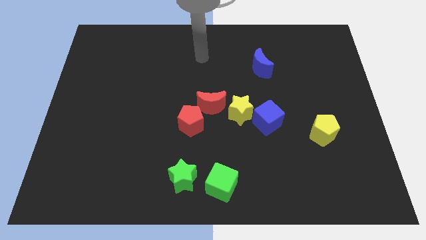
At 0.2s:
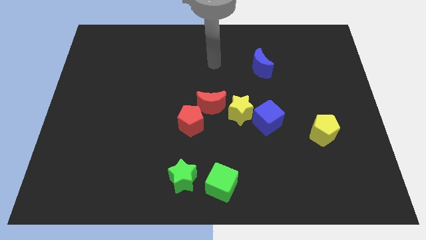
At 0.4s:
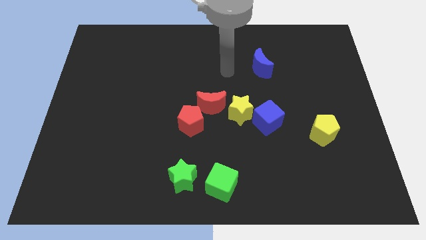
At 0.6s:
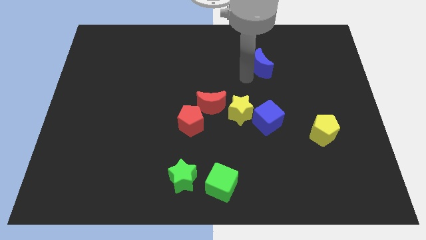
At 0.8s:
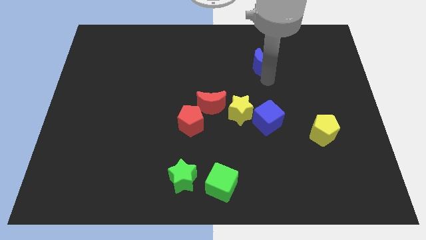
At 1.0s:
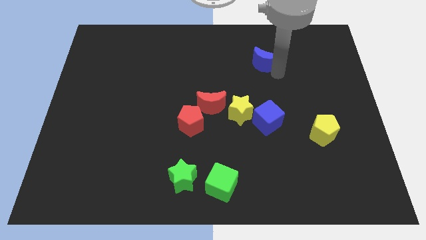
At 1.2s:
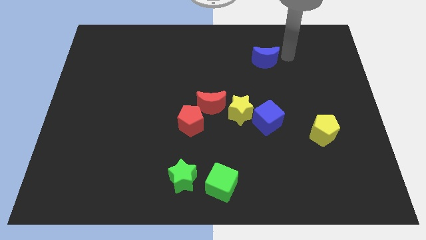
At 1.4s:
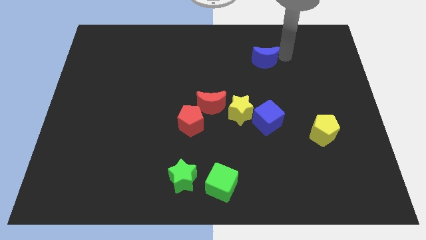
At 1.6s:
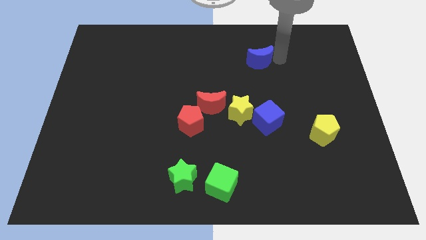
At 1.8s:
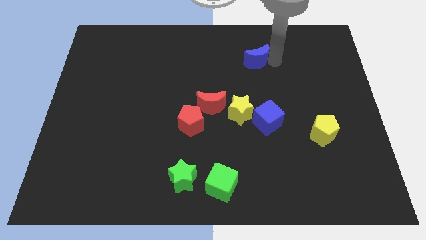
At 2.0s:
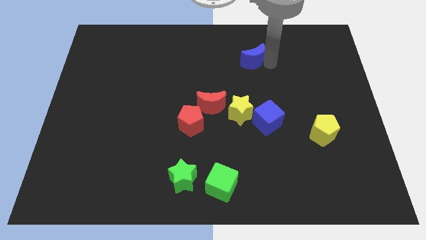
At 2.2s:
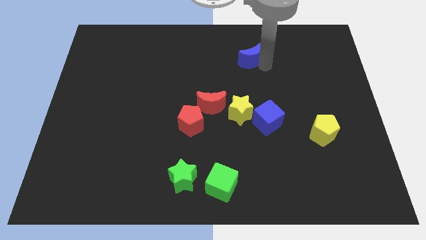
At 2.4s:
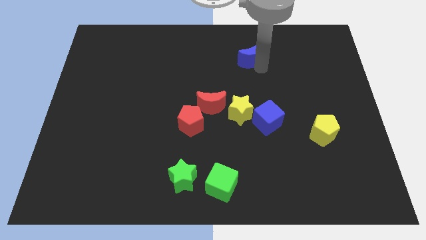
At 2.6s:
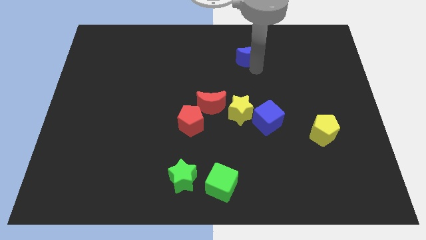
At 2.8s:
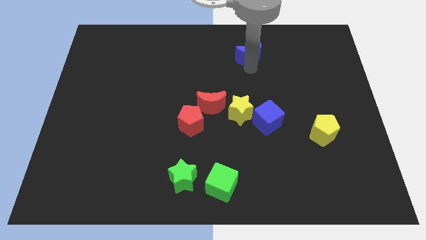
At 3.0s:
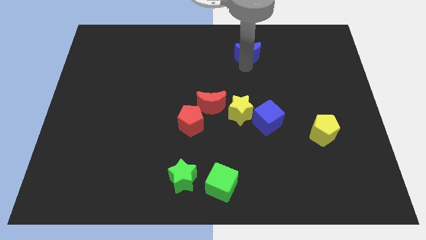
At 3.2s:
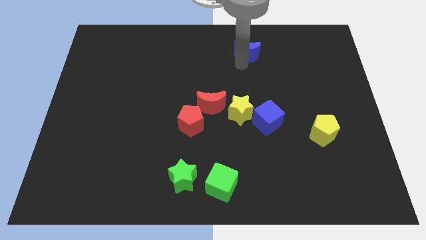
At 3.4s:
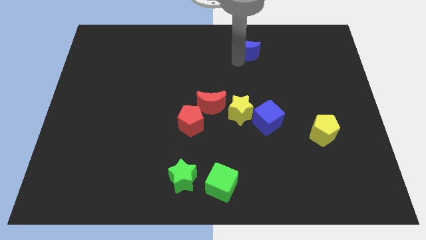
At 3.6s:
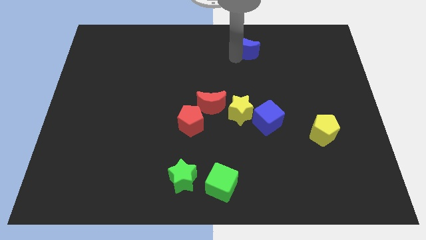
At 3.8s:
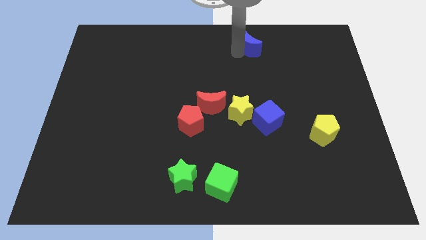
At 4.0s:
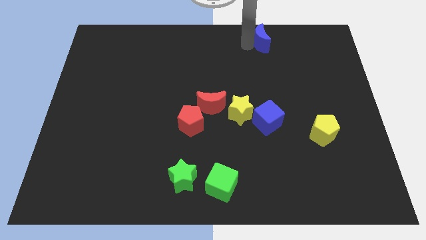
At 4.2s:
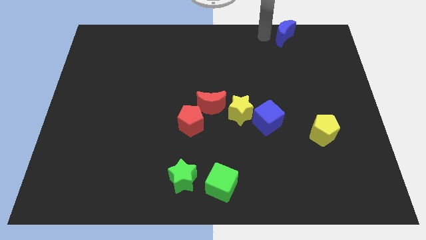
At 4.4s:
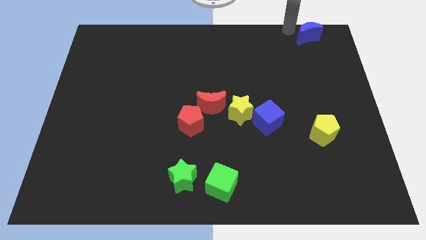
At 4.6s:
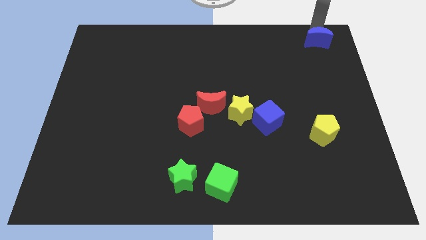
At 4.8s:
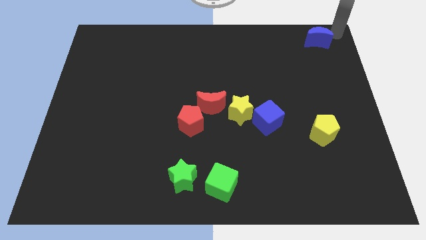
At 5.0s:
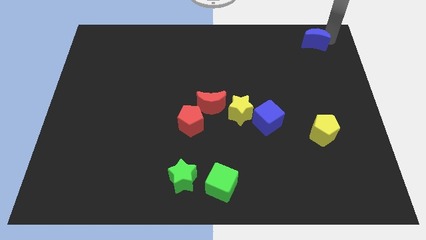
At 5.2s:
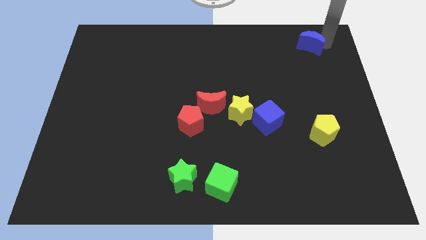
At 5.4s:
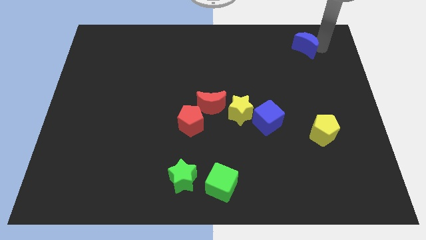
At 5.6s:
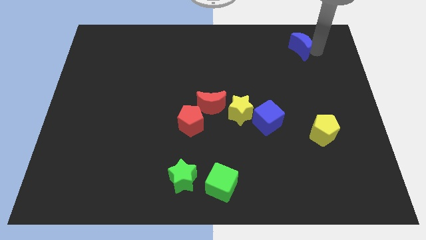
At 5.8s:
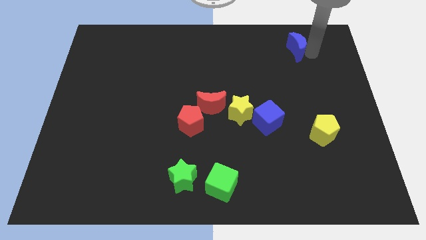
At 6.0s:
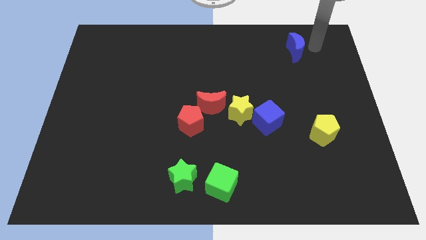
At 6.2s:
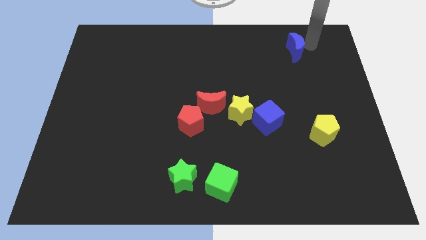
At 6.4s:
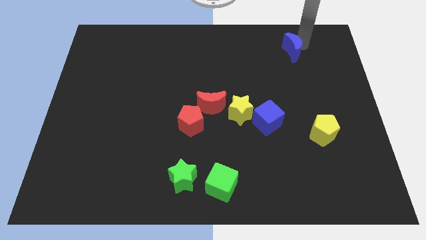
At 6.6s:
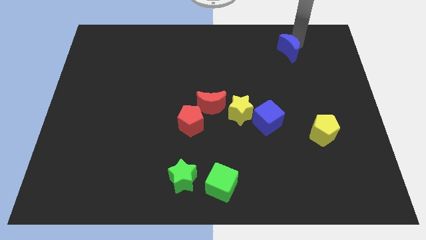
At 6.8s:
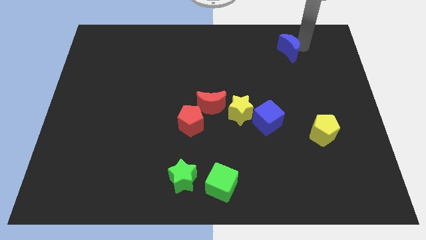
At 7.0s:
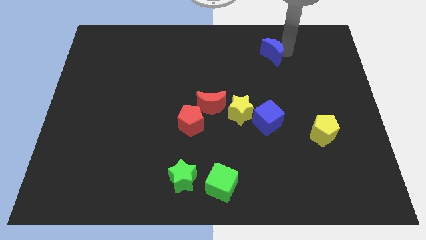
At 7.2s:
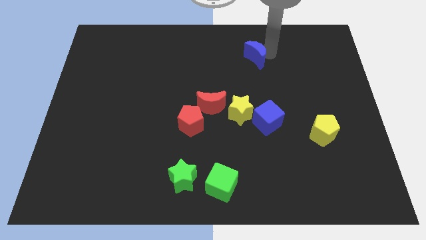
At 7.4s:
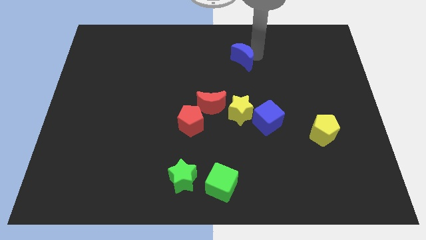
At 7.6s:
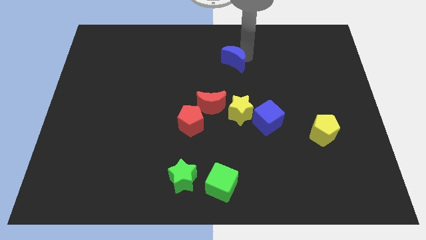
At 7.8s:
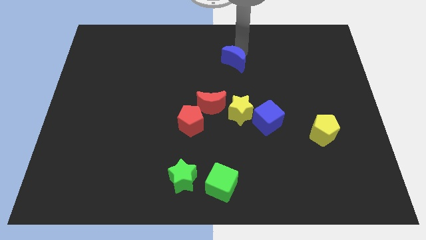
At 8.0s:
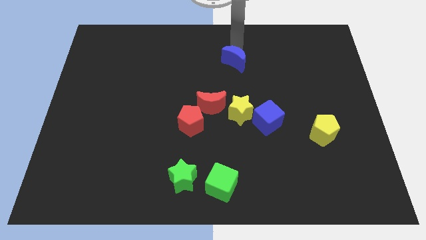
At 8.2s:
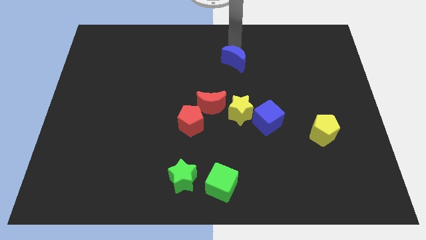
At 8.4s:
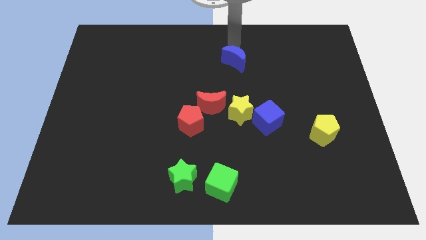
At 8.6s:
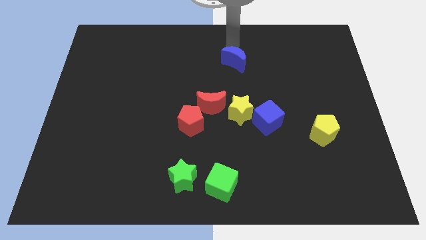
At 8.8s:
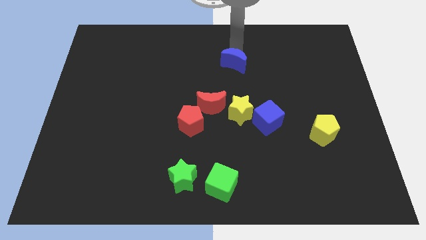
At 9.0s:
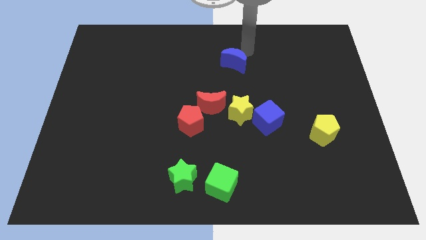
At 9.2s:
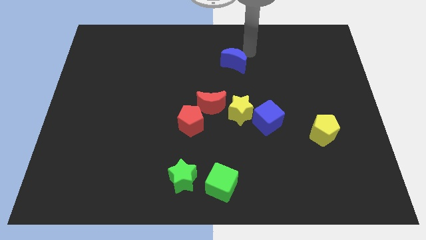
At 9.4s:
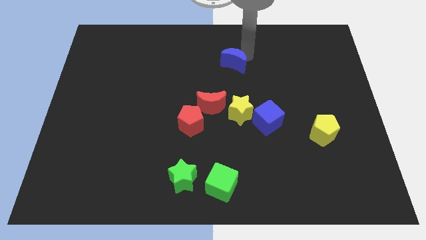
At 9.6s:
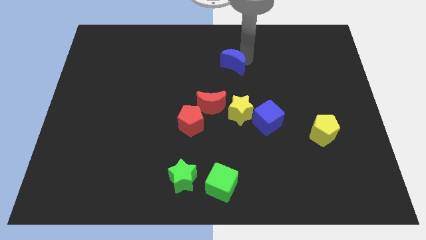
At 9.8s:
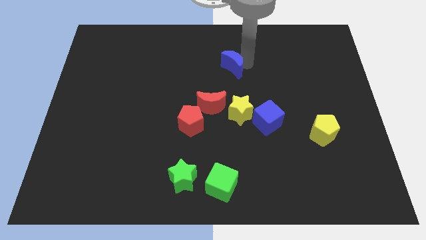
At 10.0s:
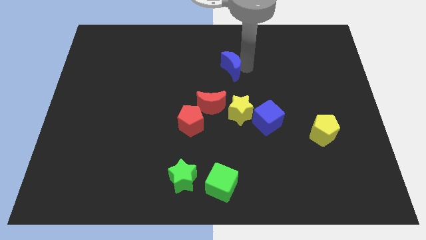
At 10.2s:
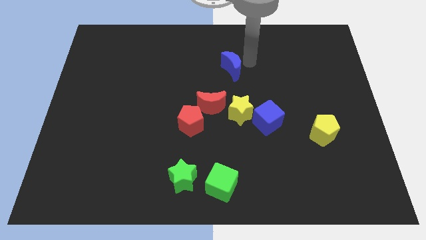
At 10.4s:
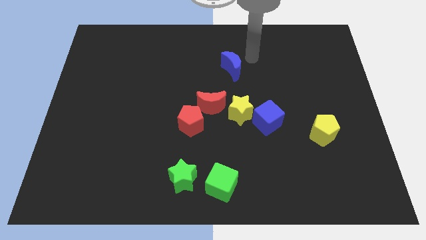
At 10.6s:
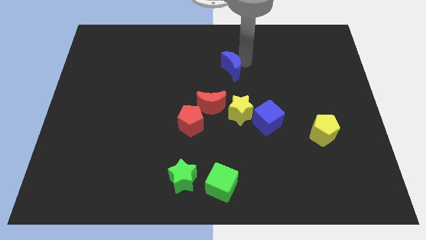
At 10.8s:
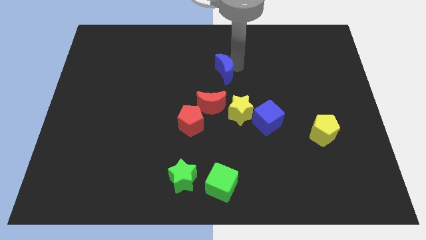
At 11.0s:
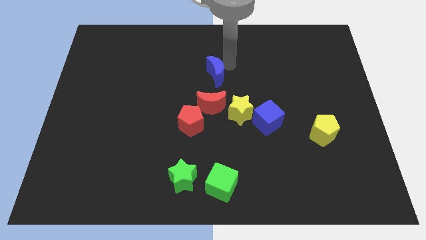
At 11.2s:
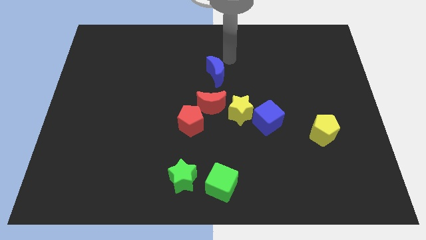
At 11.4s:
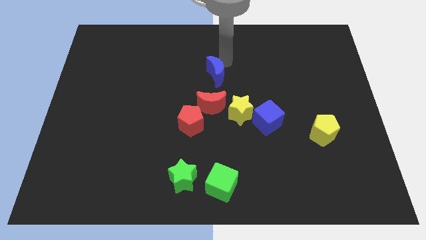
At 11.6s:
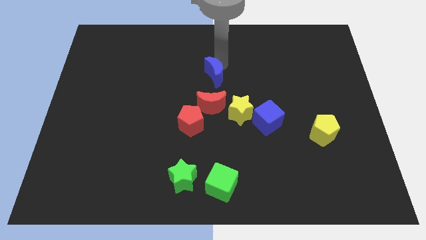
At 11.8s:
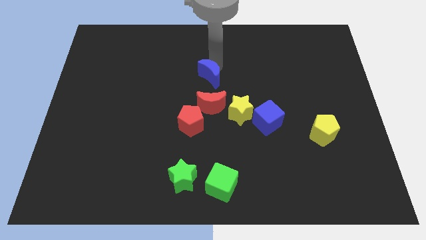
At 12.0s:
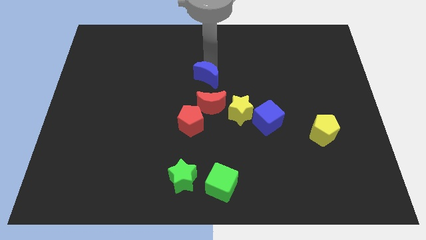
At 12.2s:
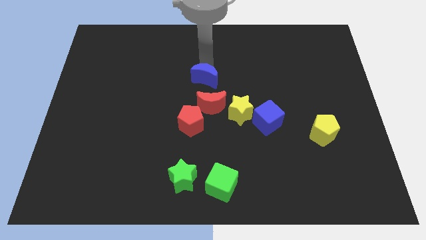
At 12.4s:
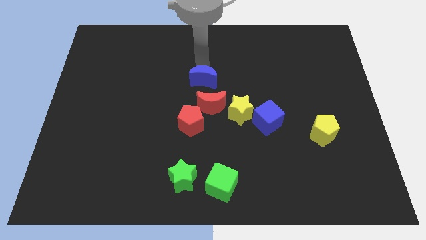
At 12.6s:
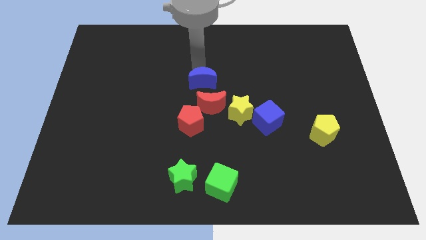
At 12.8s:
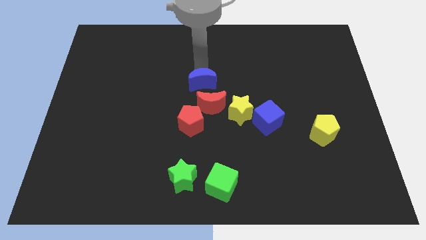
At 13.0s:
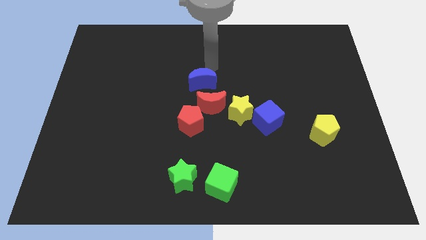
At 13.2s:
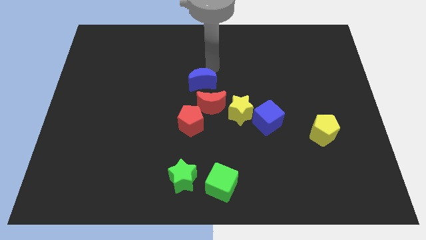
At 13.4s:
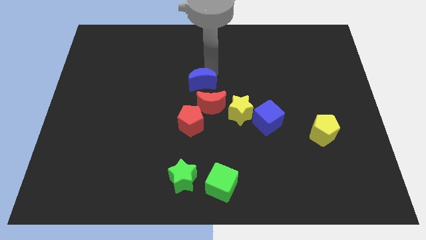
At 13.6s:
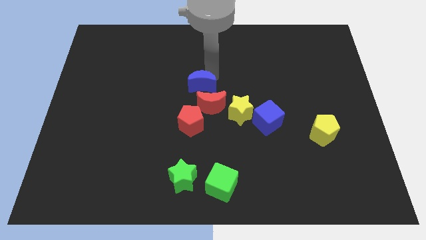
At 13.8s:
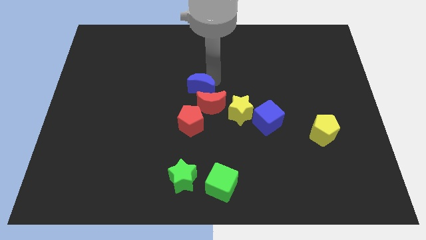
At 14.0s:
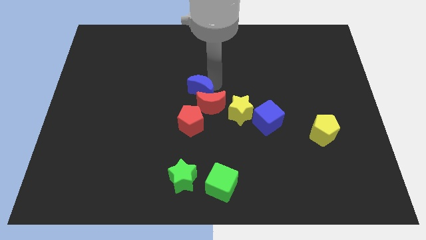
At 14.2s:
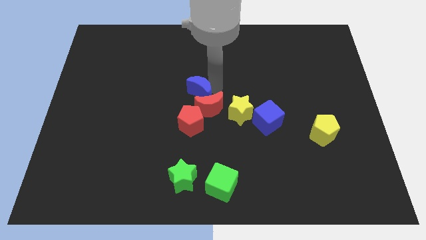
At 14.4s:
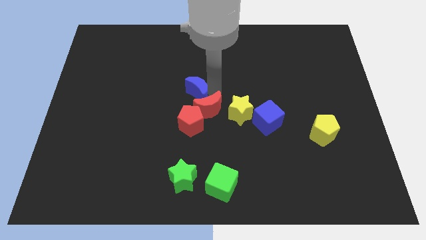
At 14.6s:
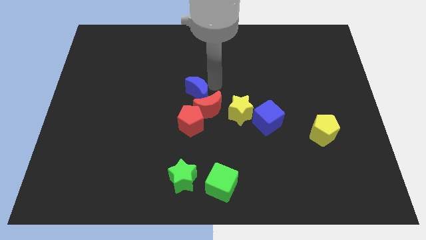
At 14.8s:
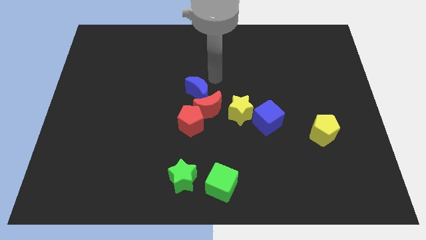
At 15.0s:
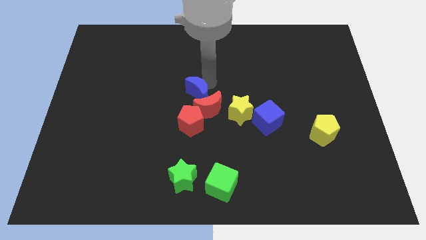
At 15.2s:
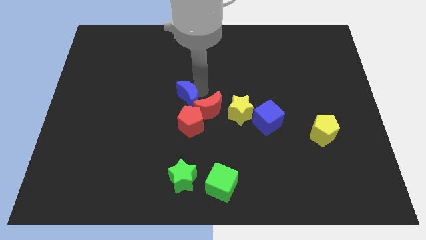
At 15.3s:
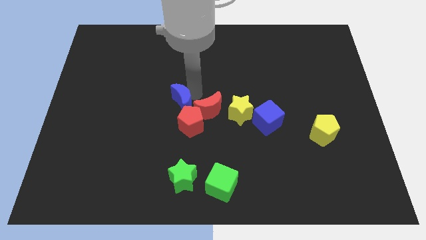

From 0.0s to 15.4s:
slide the blue moon down and then to the left

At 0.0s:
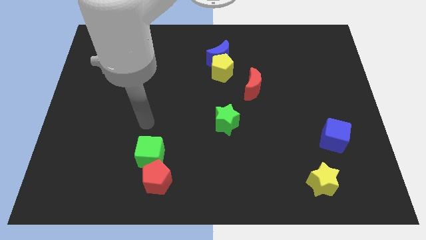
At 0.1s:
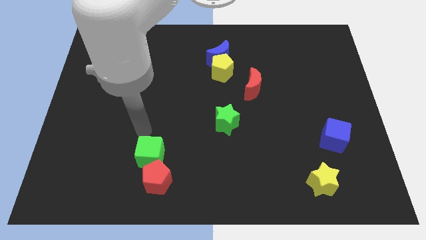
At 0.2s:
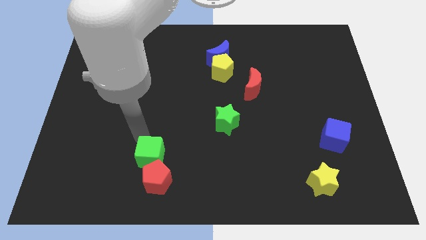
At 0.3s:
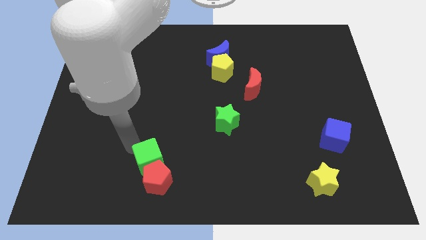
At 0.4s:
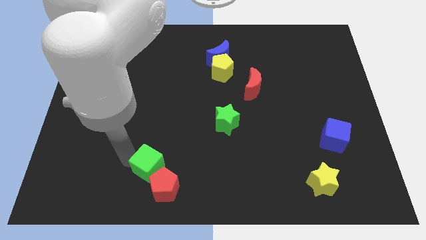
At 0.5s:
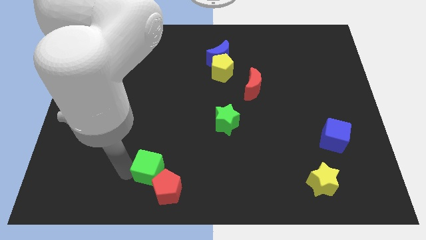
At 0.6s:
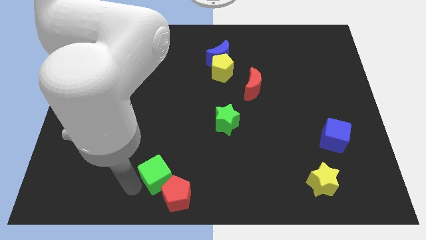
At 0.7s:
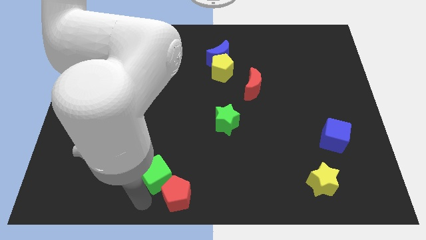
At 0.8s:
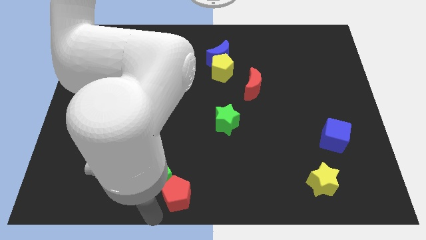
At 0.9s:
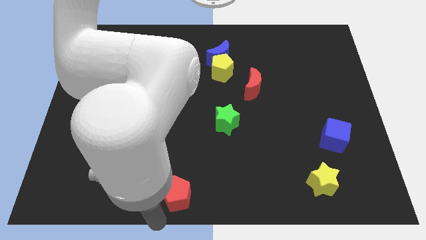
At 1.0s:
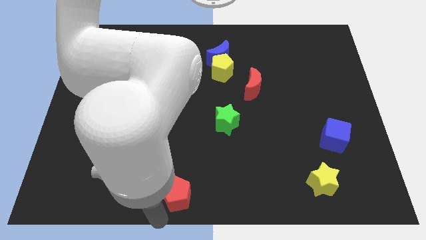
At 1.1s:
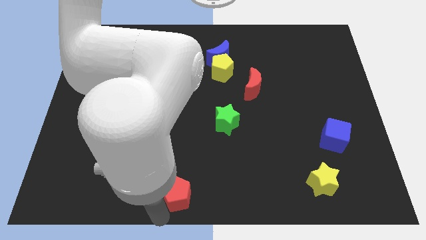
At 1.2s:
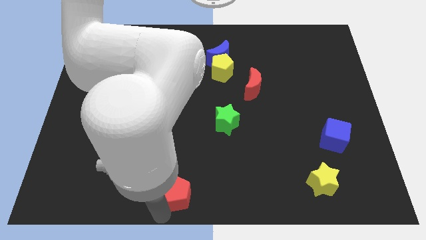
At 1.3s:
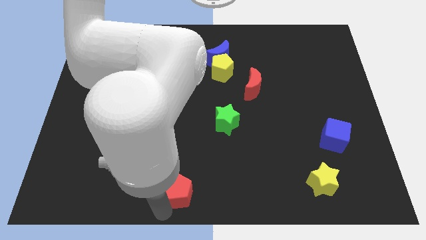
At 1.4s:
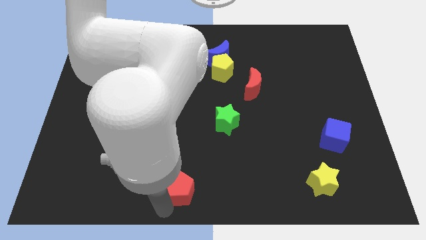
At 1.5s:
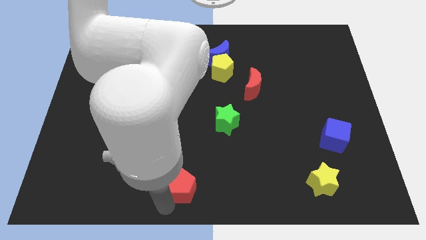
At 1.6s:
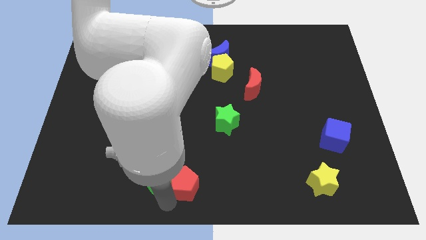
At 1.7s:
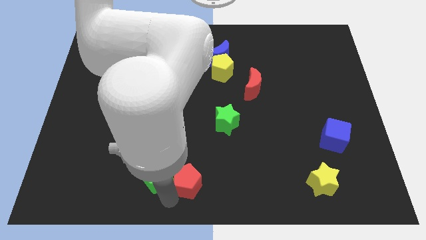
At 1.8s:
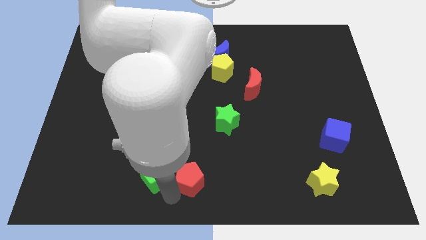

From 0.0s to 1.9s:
slide the red pentagon right a little bit
